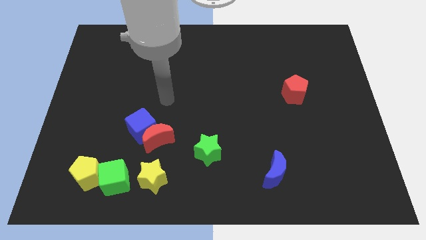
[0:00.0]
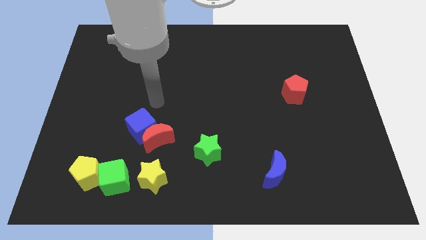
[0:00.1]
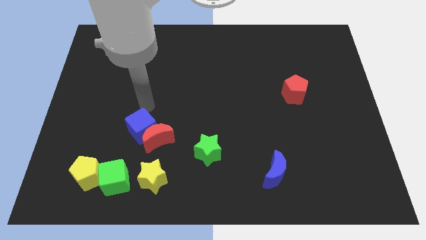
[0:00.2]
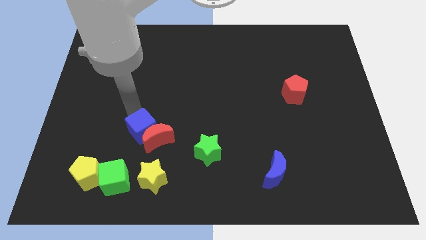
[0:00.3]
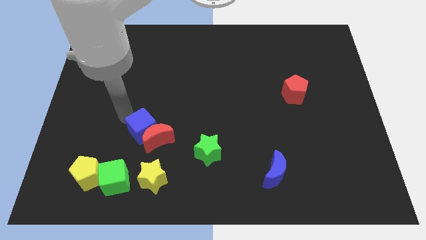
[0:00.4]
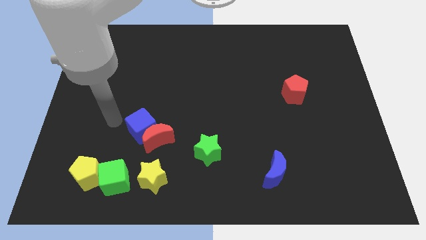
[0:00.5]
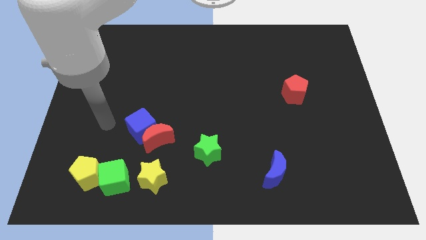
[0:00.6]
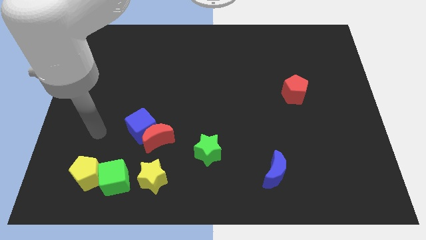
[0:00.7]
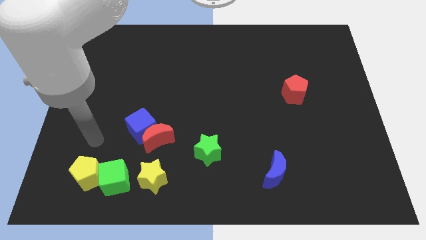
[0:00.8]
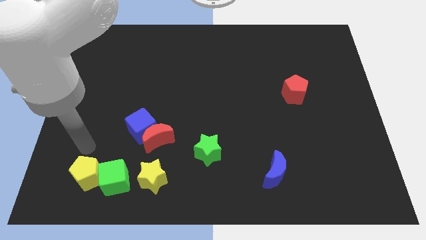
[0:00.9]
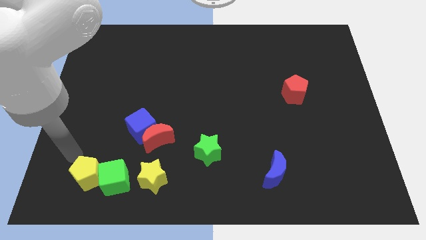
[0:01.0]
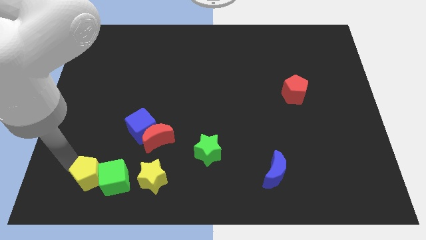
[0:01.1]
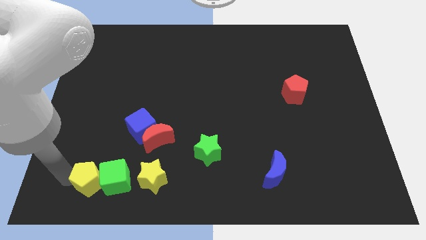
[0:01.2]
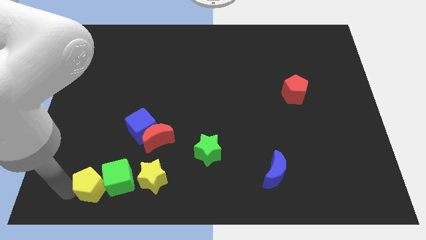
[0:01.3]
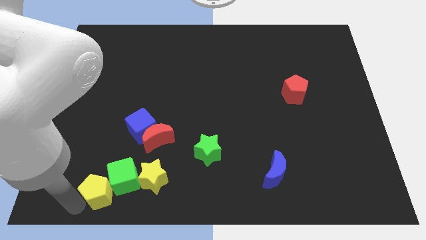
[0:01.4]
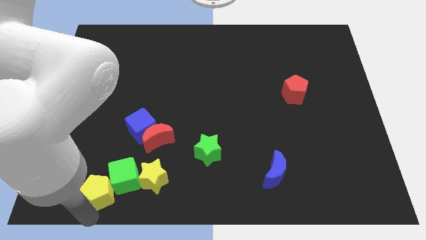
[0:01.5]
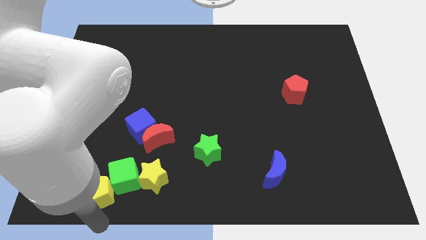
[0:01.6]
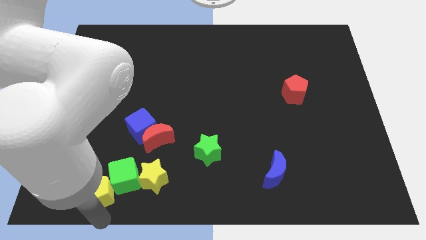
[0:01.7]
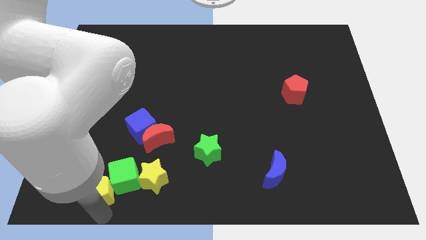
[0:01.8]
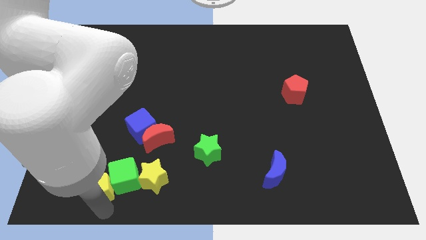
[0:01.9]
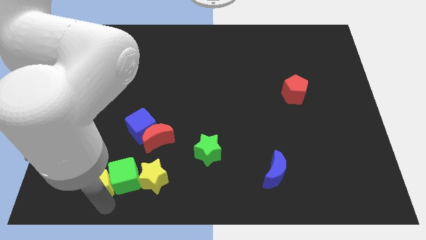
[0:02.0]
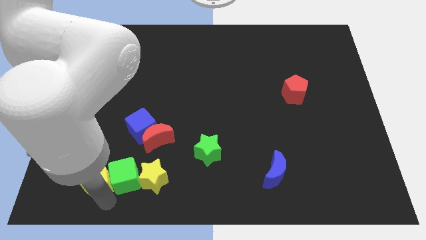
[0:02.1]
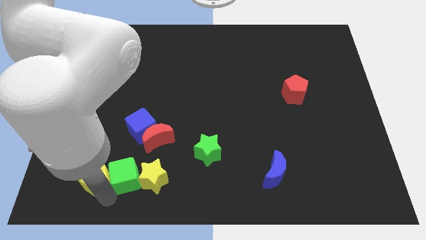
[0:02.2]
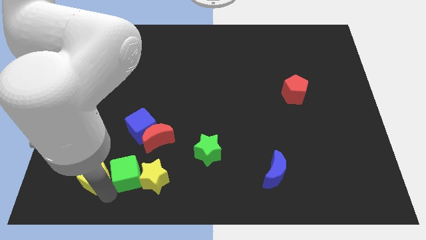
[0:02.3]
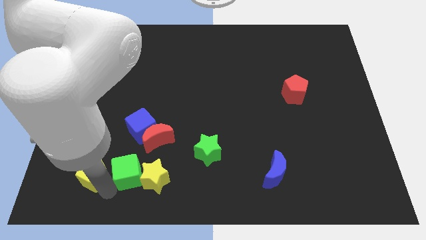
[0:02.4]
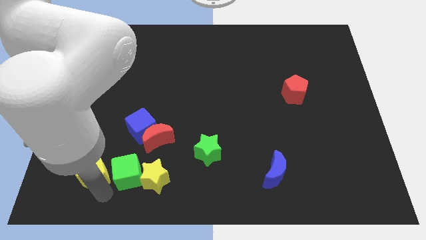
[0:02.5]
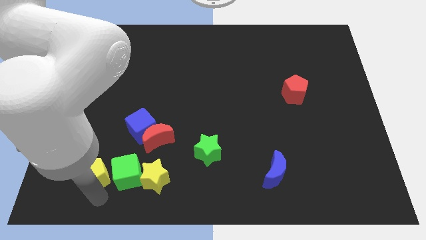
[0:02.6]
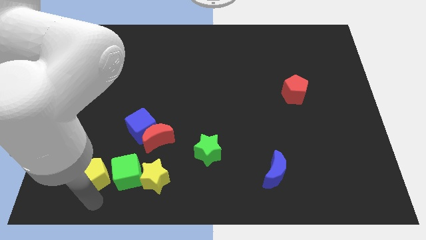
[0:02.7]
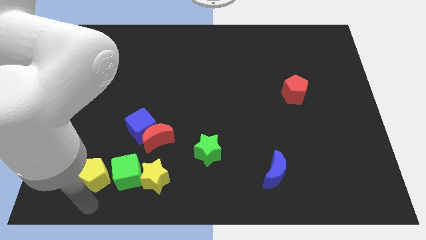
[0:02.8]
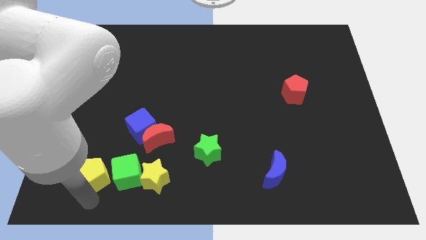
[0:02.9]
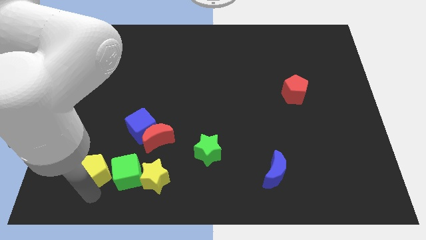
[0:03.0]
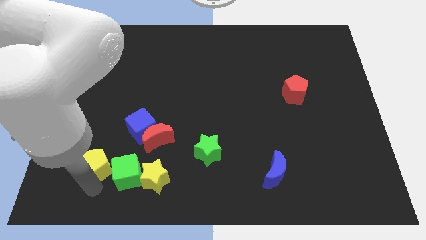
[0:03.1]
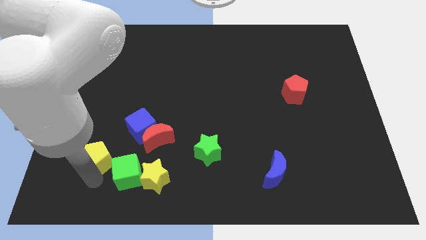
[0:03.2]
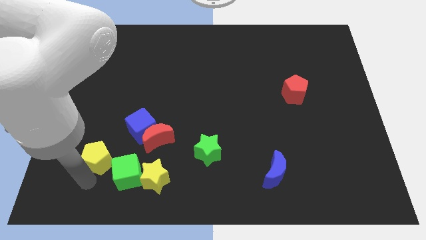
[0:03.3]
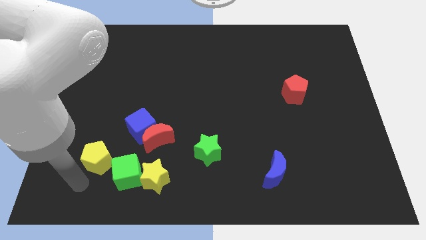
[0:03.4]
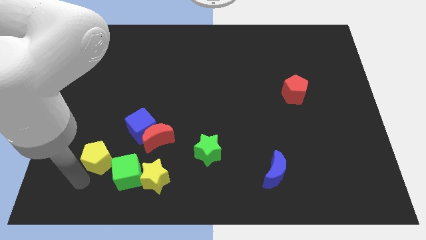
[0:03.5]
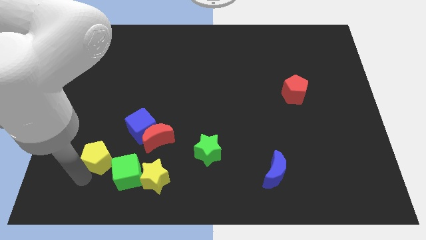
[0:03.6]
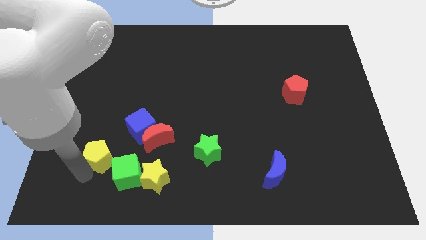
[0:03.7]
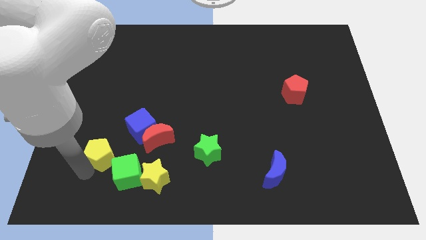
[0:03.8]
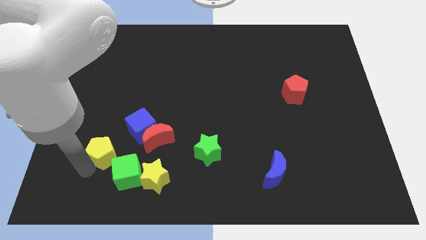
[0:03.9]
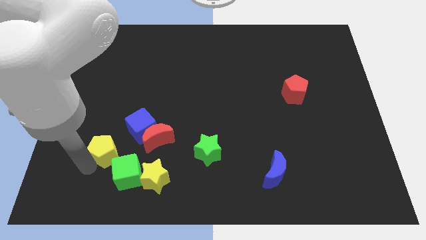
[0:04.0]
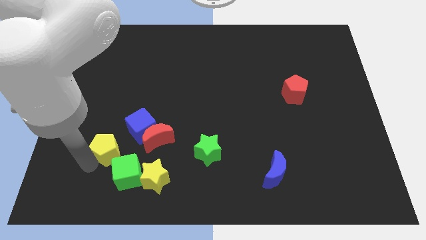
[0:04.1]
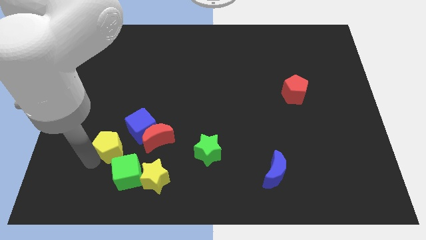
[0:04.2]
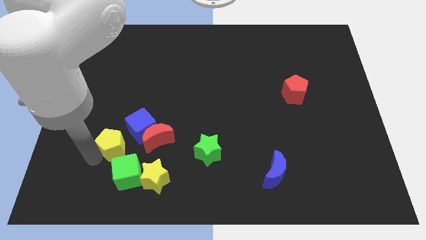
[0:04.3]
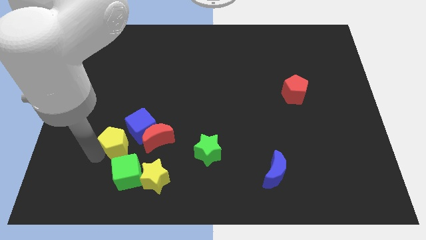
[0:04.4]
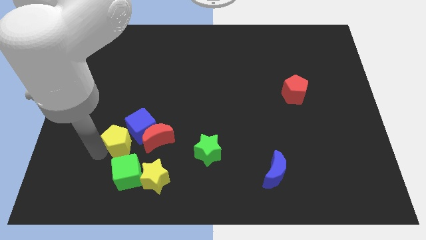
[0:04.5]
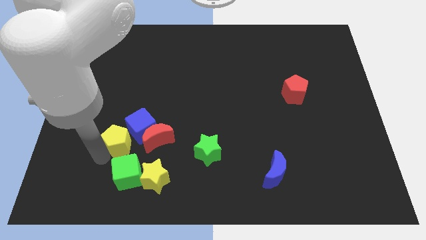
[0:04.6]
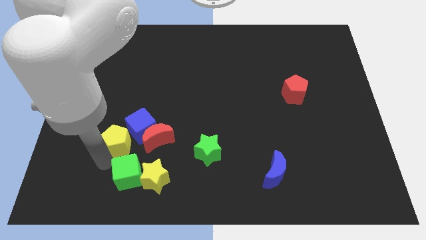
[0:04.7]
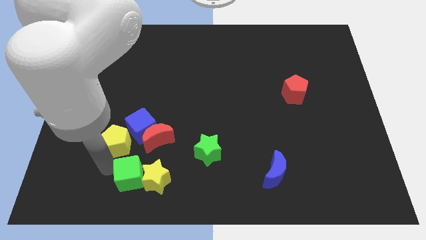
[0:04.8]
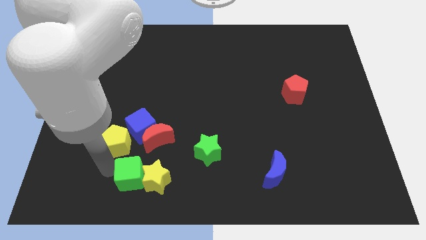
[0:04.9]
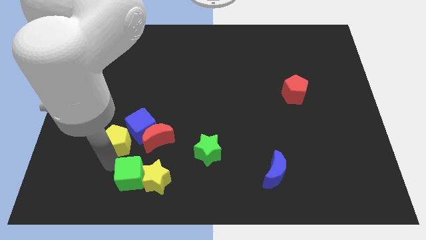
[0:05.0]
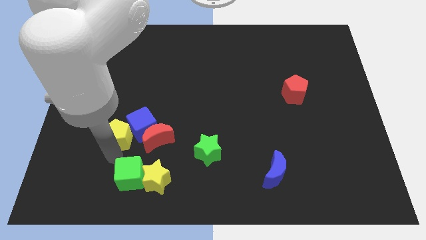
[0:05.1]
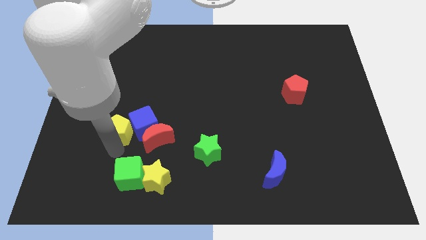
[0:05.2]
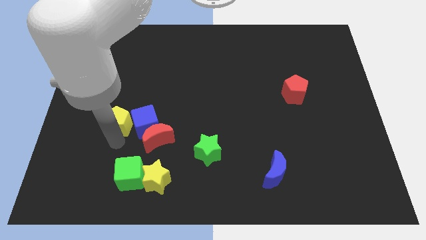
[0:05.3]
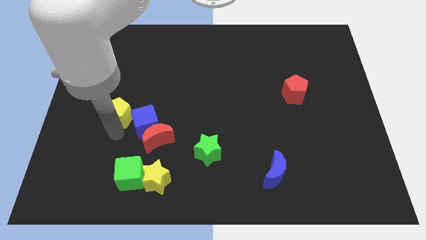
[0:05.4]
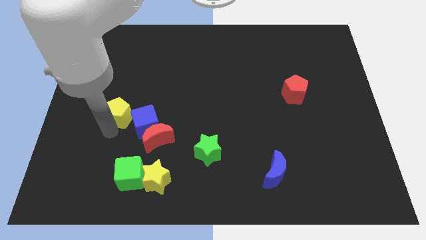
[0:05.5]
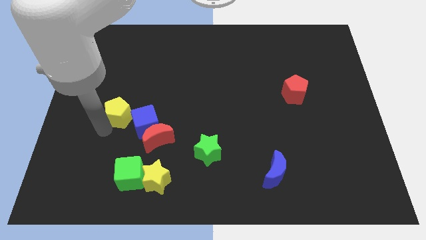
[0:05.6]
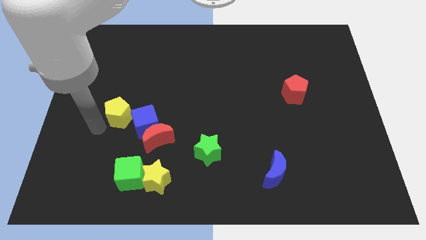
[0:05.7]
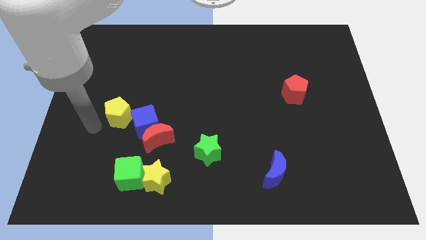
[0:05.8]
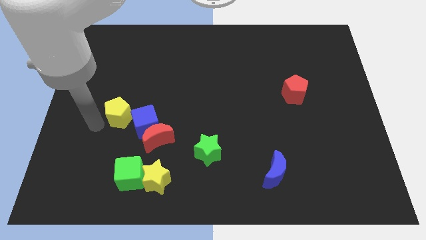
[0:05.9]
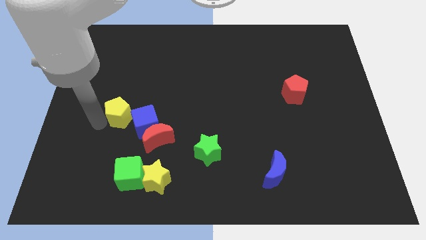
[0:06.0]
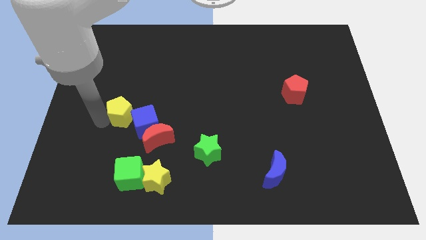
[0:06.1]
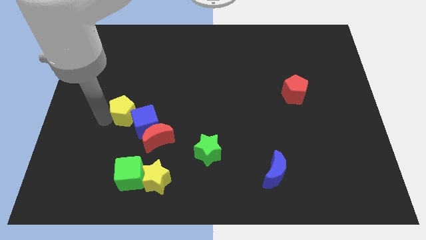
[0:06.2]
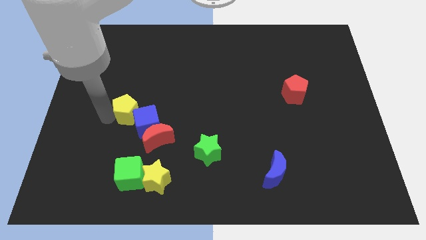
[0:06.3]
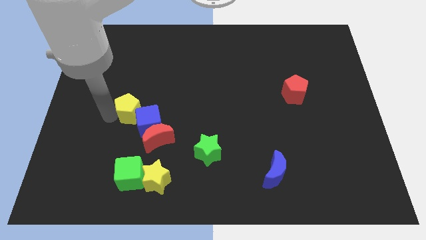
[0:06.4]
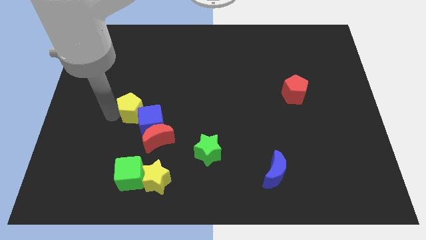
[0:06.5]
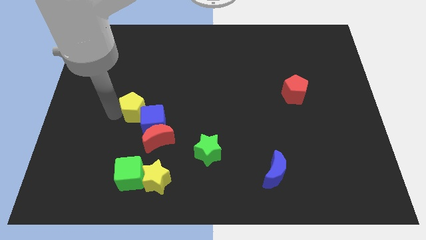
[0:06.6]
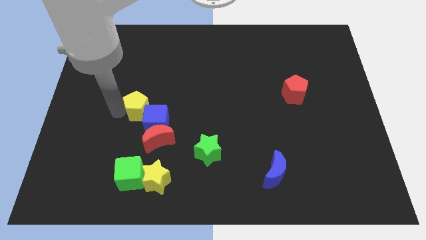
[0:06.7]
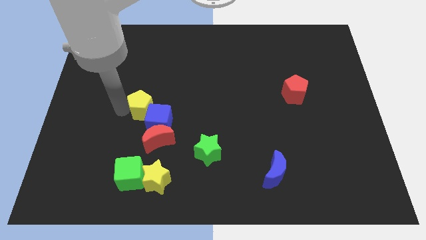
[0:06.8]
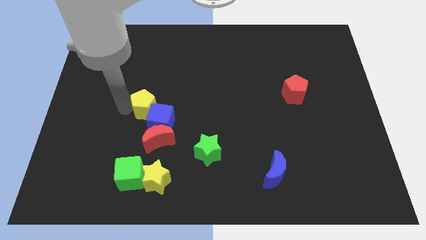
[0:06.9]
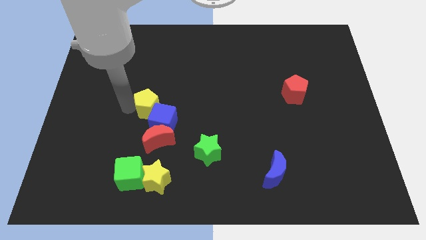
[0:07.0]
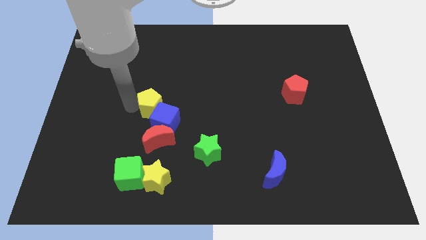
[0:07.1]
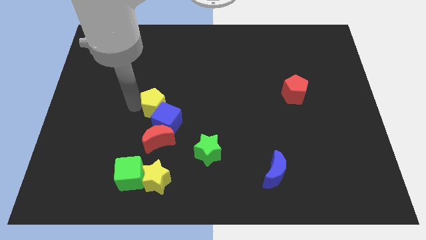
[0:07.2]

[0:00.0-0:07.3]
slide the yellow pentagon up and right

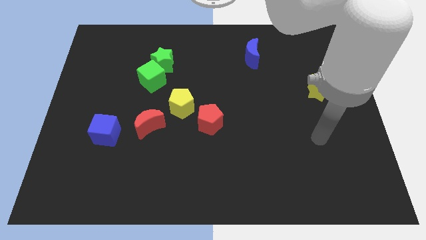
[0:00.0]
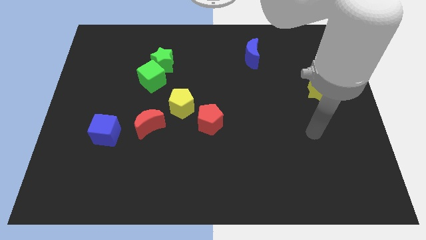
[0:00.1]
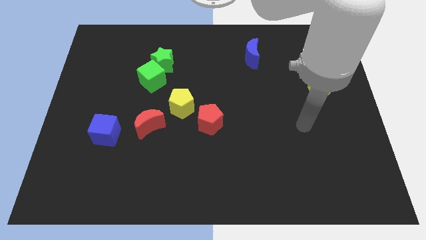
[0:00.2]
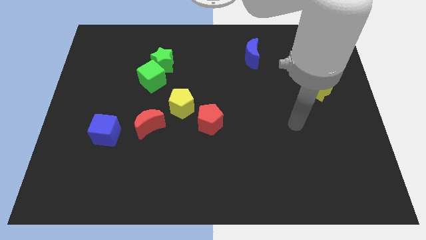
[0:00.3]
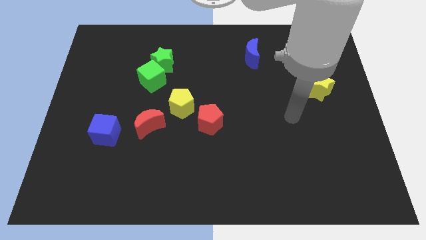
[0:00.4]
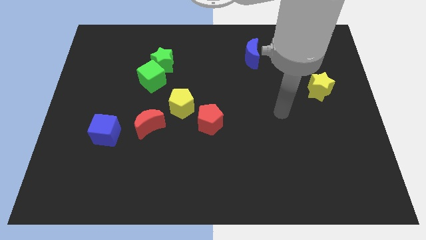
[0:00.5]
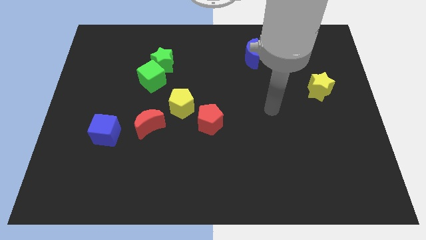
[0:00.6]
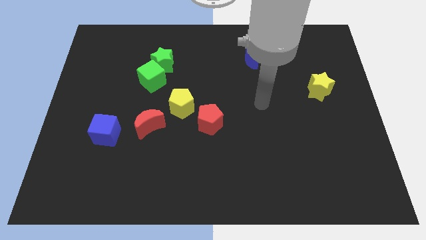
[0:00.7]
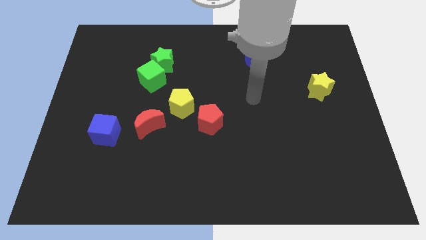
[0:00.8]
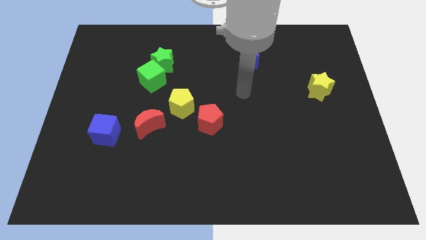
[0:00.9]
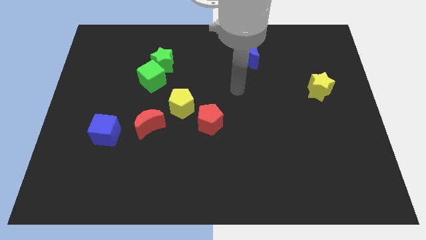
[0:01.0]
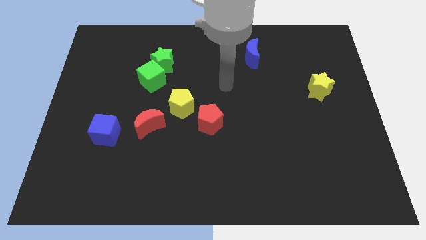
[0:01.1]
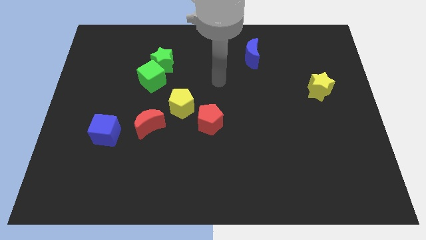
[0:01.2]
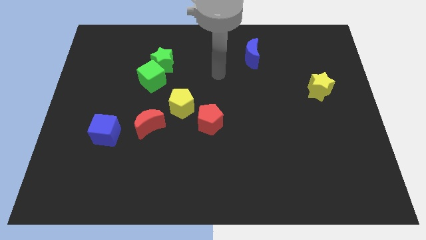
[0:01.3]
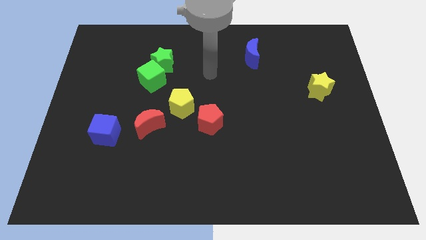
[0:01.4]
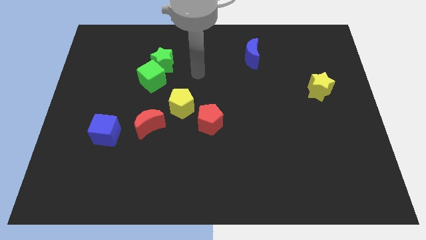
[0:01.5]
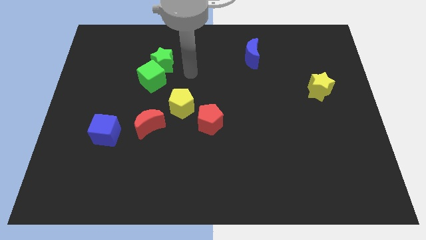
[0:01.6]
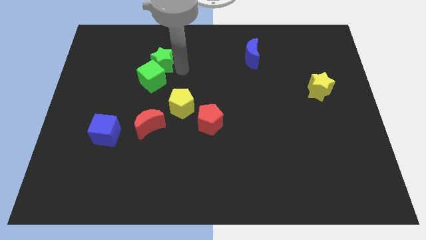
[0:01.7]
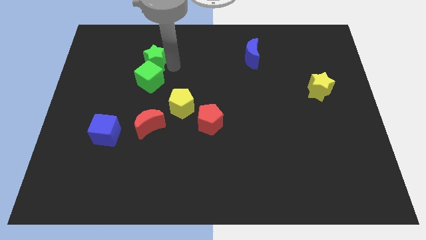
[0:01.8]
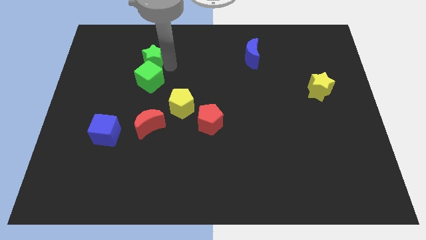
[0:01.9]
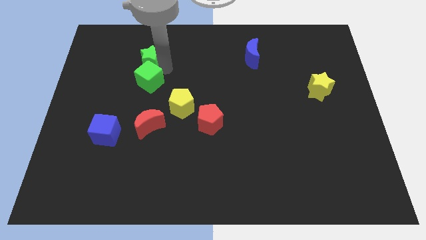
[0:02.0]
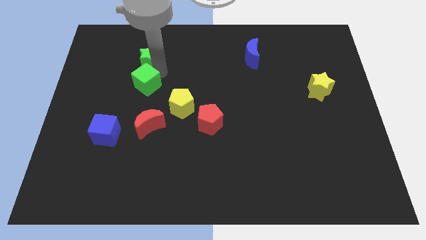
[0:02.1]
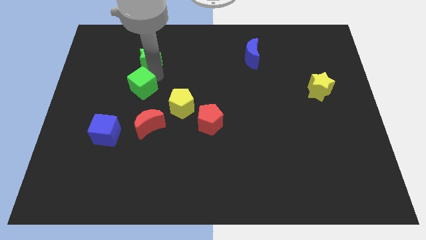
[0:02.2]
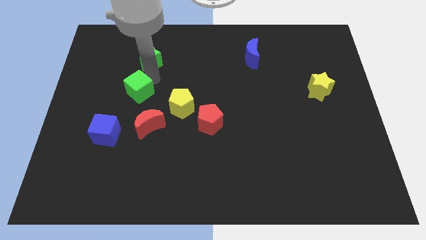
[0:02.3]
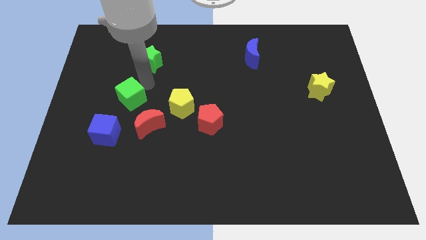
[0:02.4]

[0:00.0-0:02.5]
slightly push the green cube down and to the left
